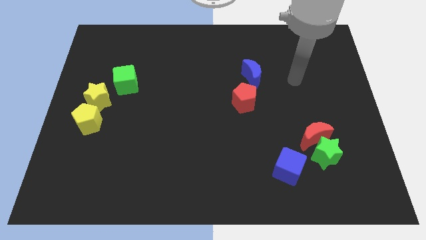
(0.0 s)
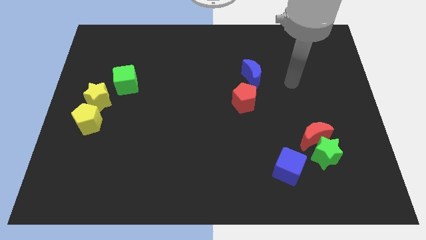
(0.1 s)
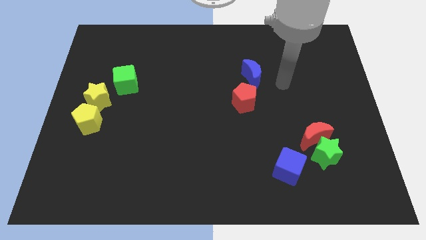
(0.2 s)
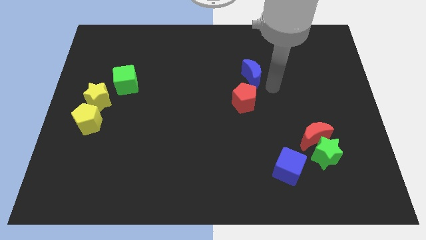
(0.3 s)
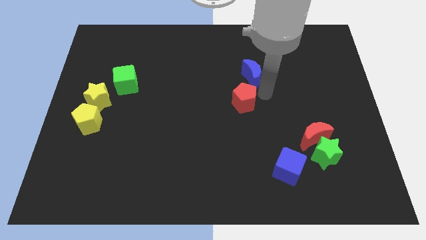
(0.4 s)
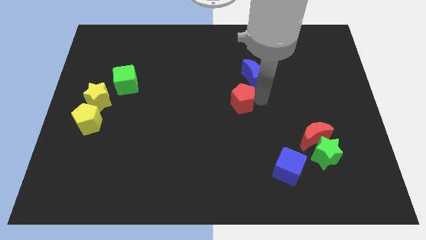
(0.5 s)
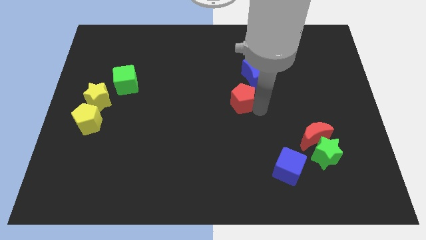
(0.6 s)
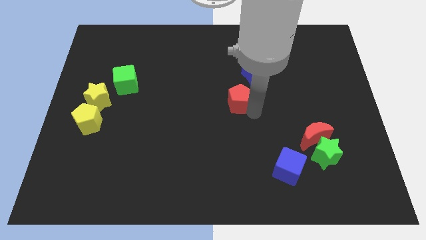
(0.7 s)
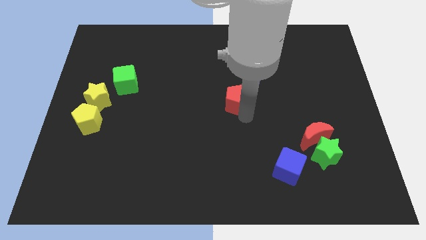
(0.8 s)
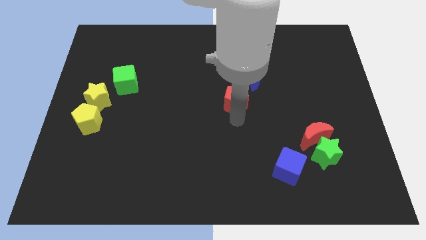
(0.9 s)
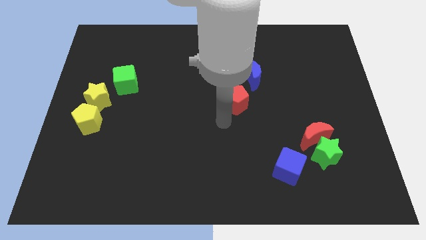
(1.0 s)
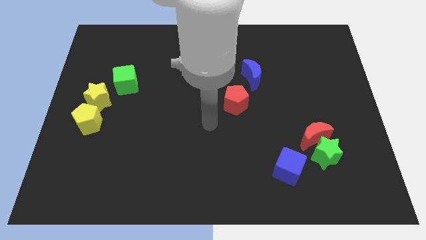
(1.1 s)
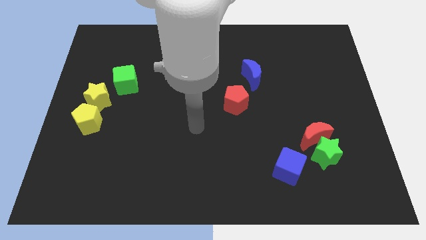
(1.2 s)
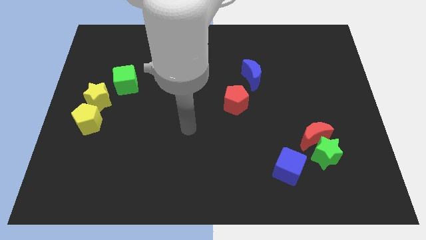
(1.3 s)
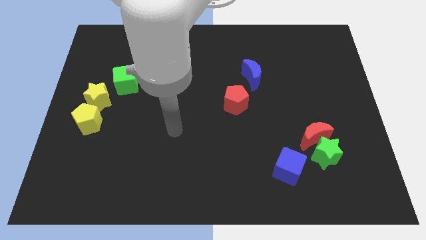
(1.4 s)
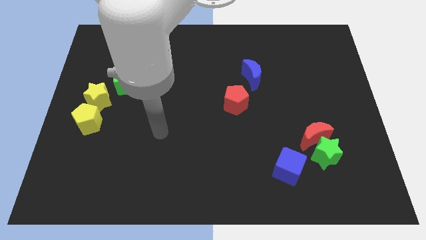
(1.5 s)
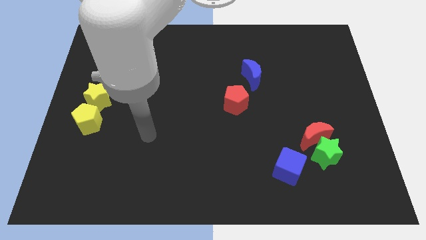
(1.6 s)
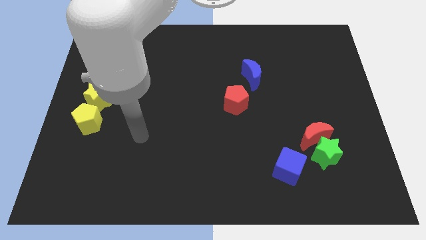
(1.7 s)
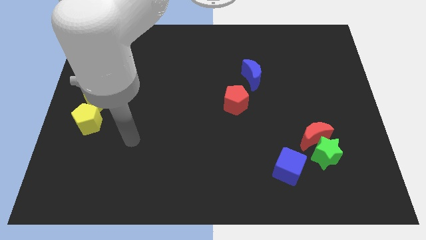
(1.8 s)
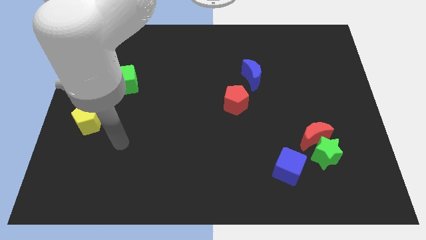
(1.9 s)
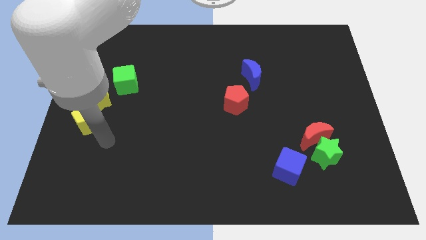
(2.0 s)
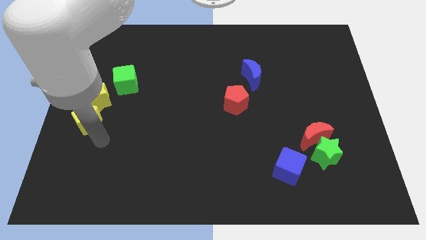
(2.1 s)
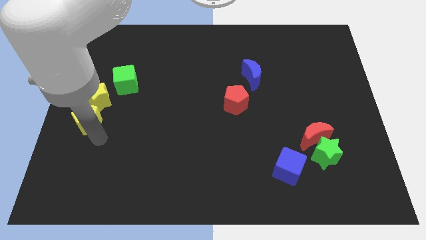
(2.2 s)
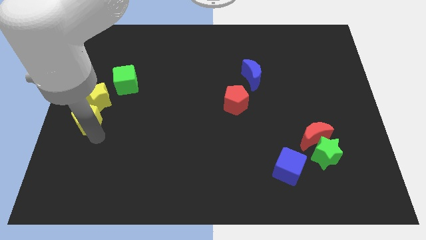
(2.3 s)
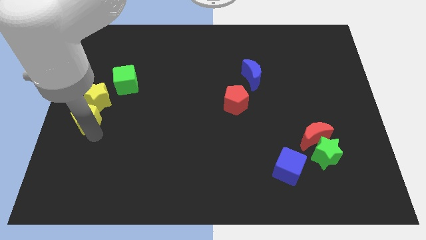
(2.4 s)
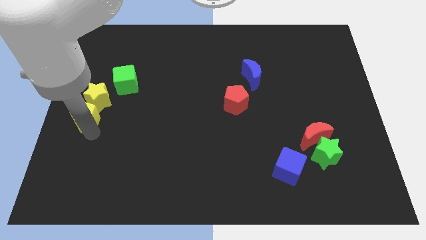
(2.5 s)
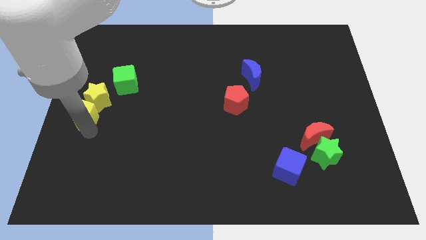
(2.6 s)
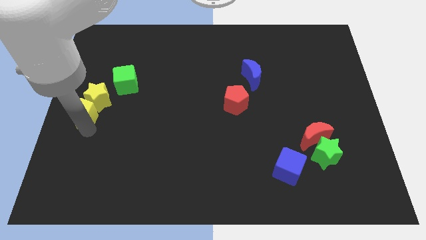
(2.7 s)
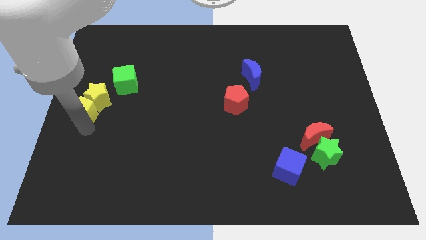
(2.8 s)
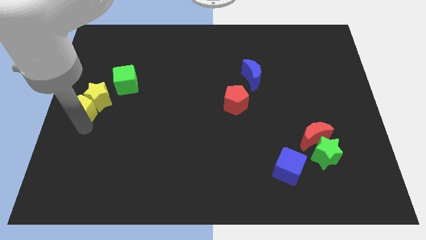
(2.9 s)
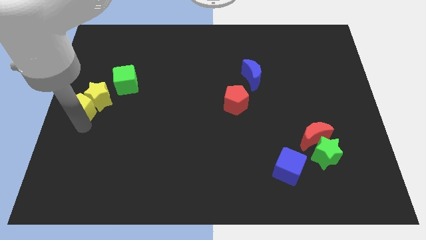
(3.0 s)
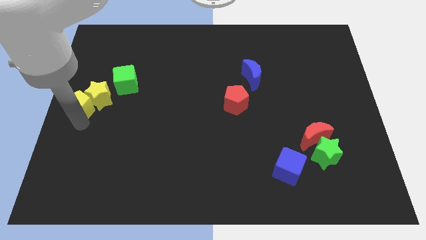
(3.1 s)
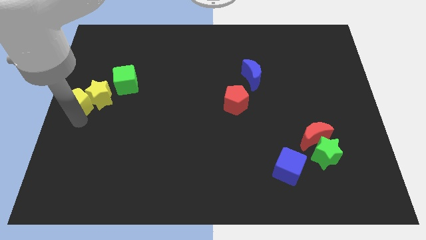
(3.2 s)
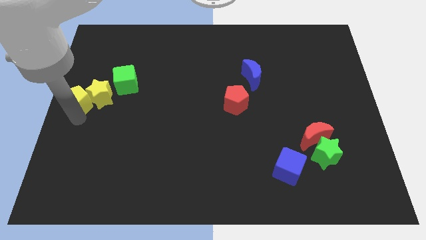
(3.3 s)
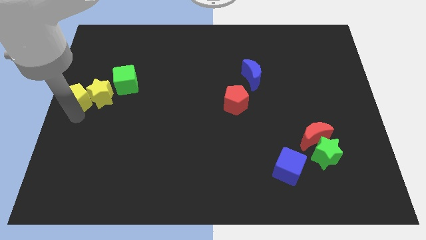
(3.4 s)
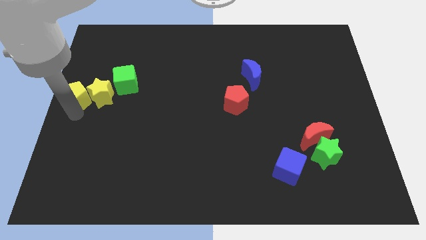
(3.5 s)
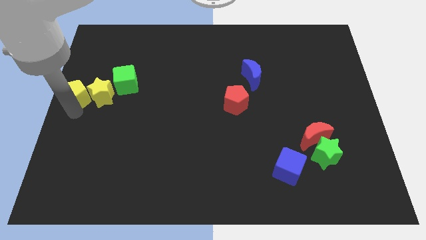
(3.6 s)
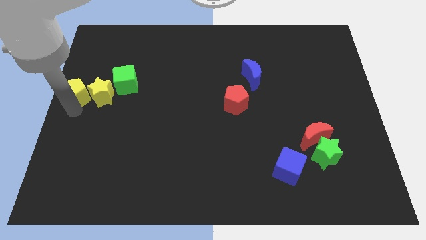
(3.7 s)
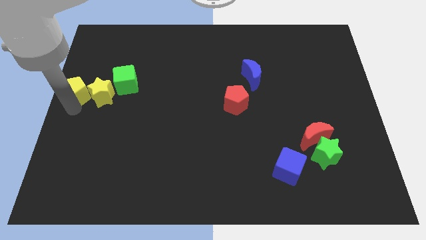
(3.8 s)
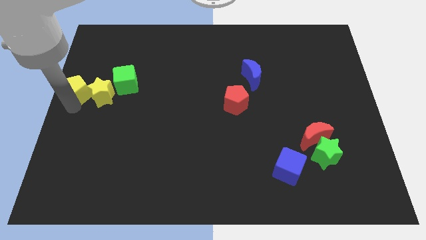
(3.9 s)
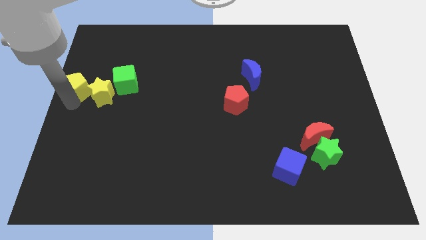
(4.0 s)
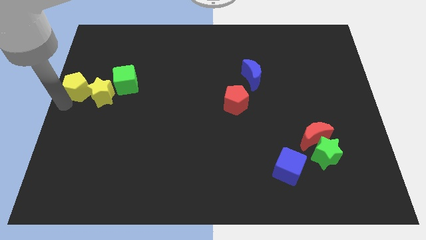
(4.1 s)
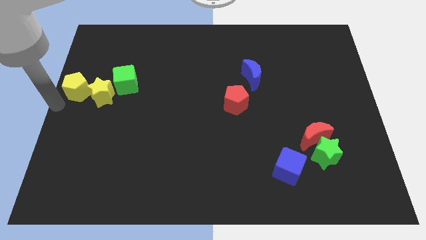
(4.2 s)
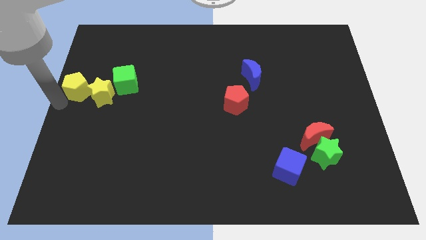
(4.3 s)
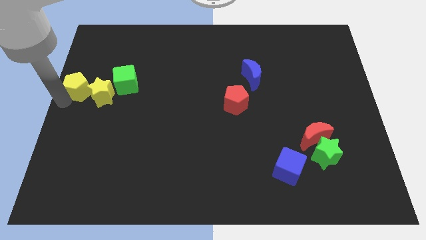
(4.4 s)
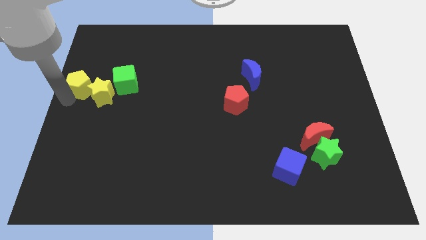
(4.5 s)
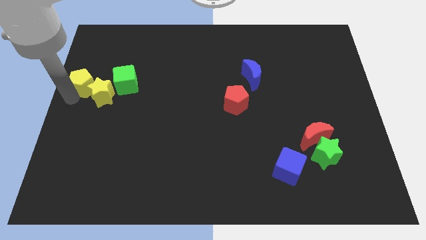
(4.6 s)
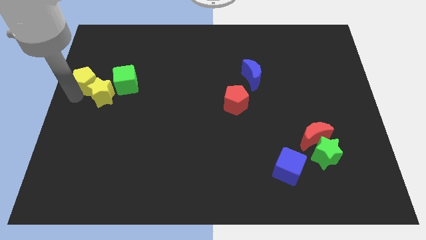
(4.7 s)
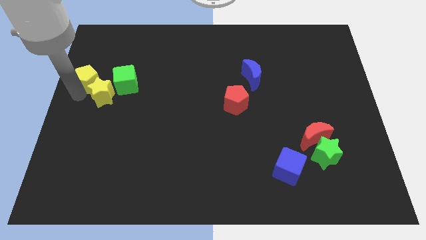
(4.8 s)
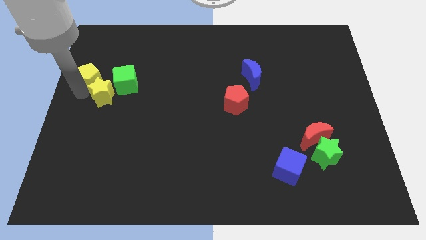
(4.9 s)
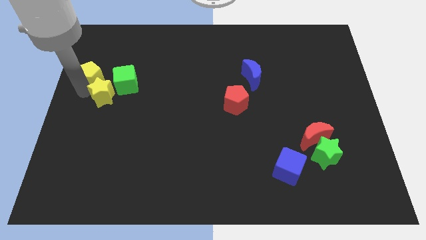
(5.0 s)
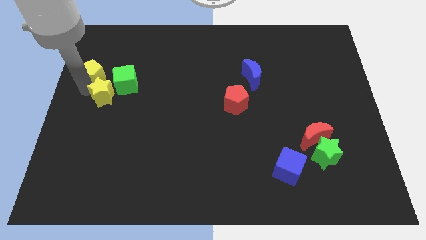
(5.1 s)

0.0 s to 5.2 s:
slide the yellow pentagon to the top left of the green cube

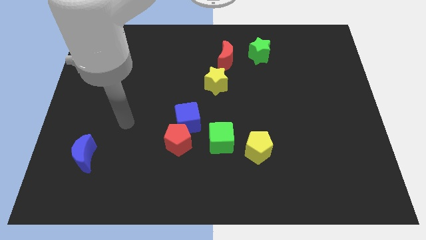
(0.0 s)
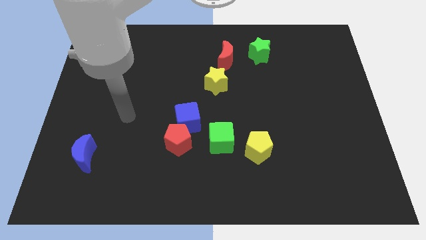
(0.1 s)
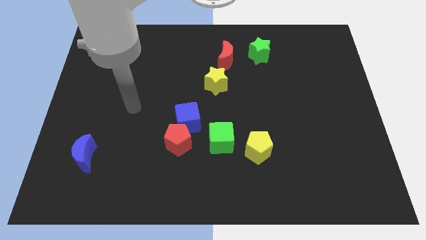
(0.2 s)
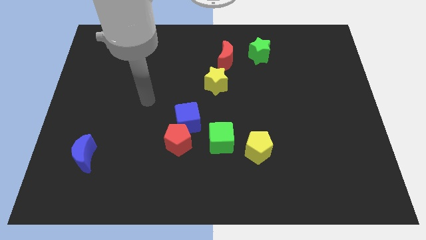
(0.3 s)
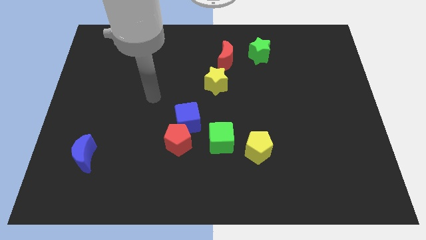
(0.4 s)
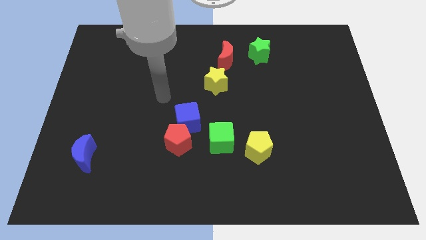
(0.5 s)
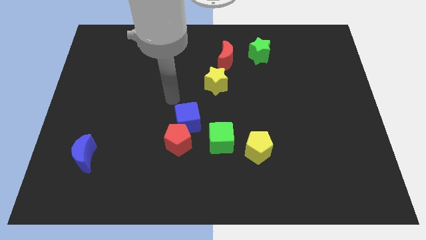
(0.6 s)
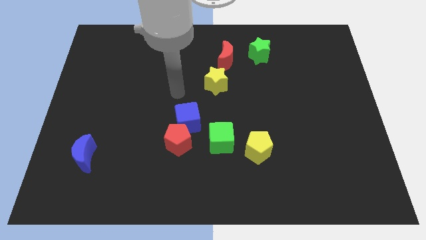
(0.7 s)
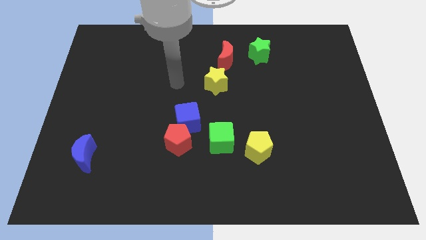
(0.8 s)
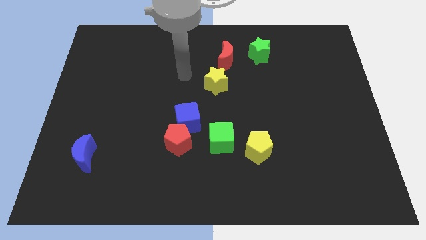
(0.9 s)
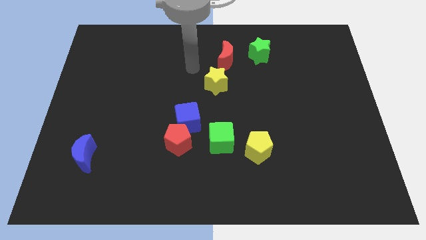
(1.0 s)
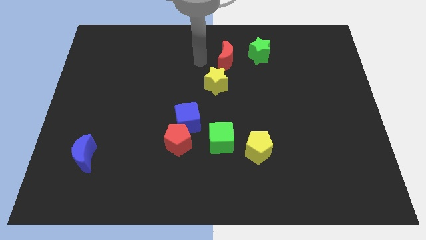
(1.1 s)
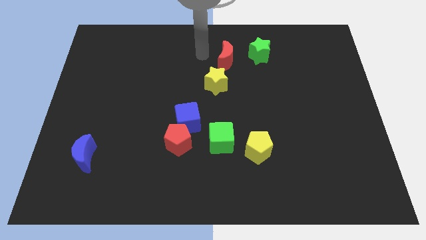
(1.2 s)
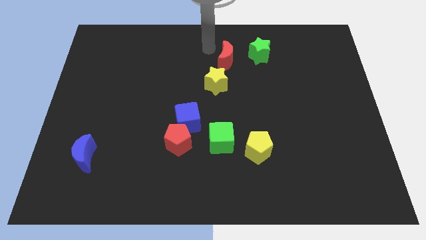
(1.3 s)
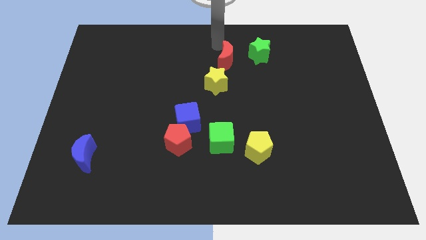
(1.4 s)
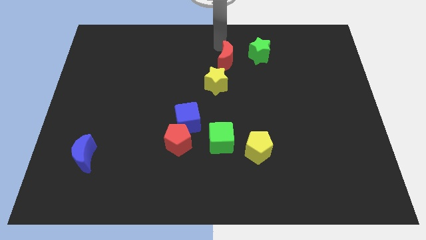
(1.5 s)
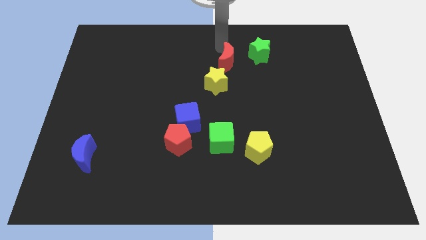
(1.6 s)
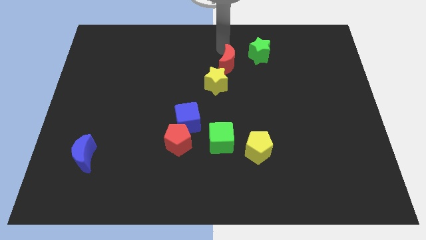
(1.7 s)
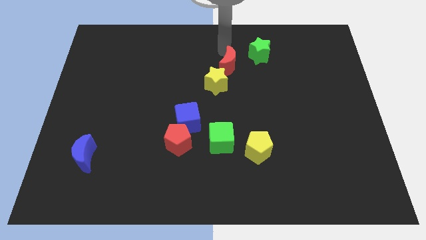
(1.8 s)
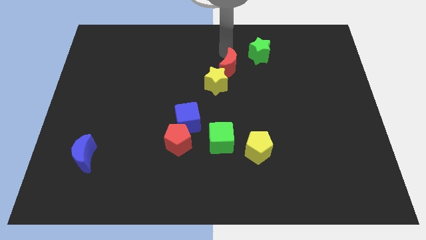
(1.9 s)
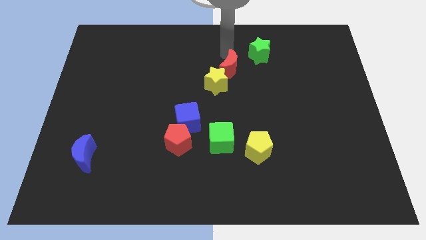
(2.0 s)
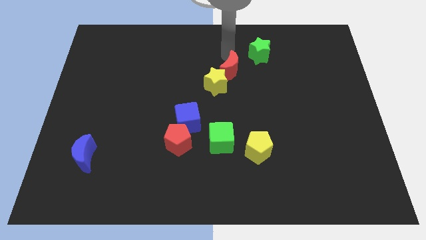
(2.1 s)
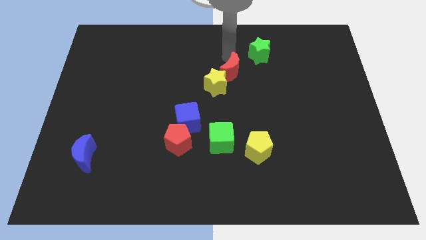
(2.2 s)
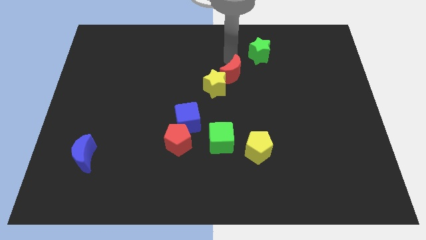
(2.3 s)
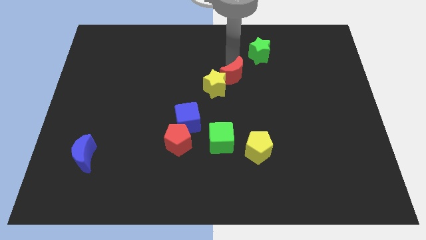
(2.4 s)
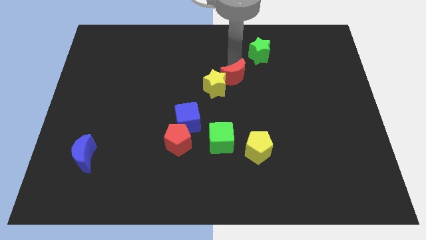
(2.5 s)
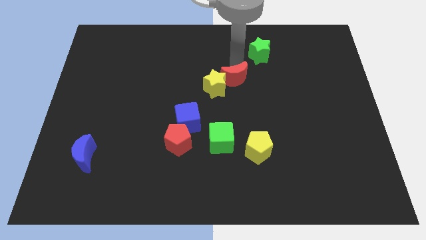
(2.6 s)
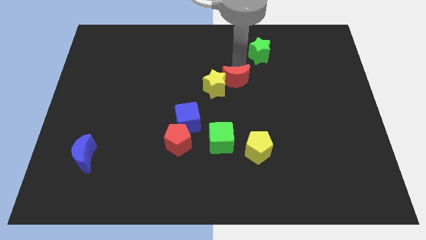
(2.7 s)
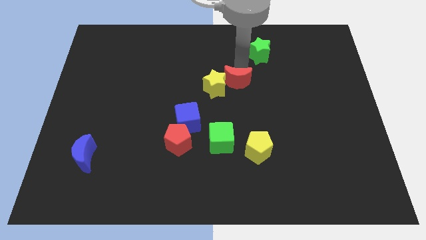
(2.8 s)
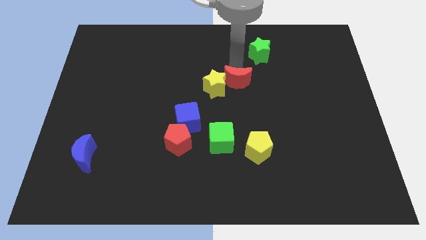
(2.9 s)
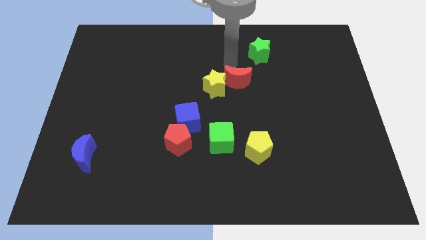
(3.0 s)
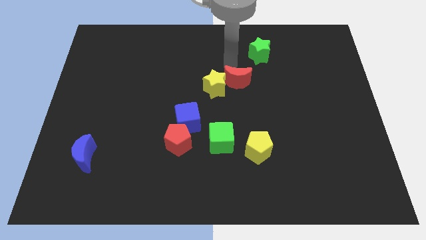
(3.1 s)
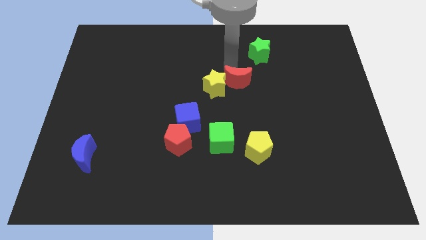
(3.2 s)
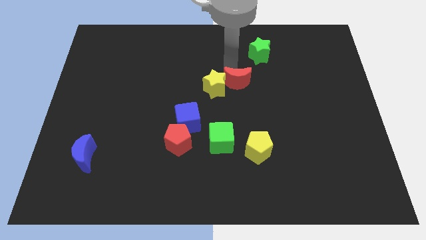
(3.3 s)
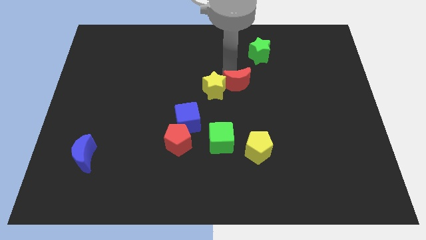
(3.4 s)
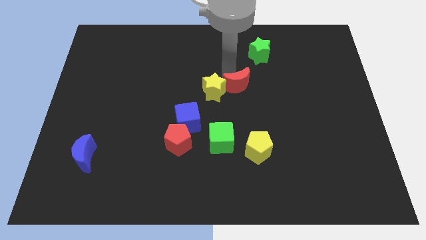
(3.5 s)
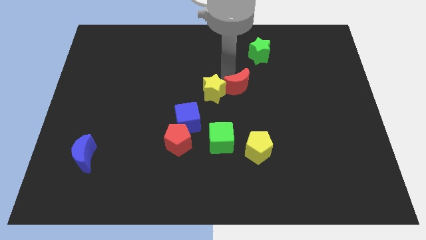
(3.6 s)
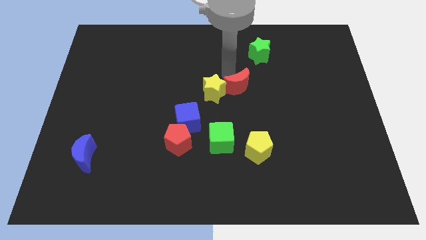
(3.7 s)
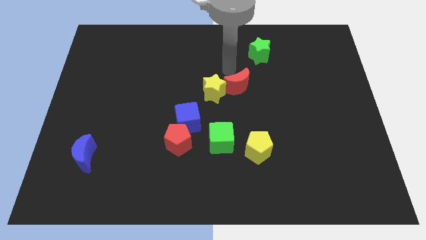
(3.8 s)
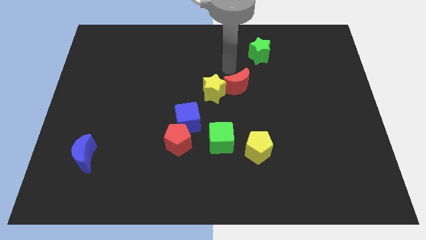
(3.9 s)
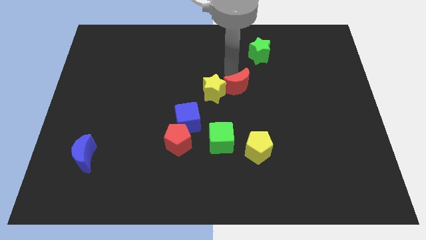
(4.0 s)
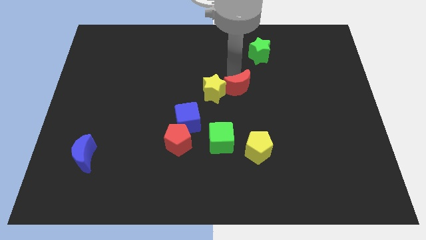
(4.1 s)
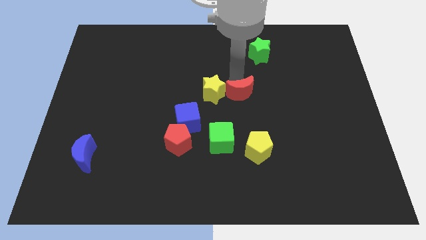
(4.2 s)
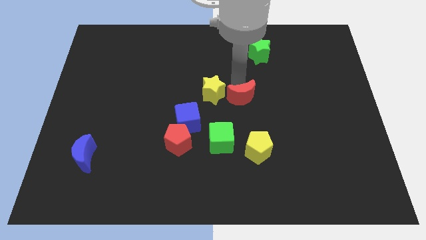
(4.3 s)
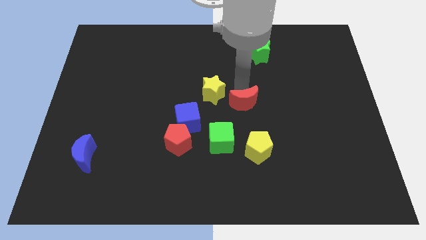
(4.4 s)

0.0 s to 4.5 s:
slide the red moon to the top right side of the green cube
